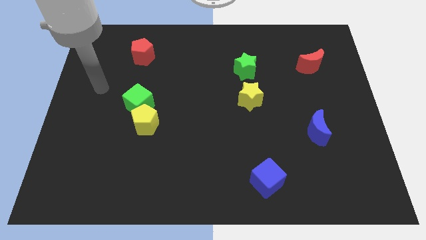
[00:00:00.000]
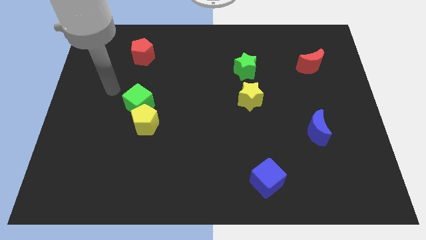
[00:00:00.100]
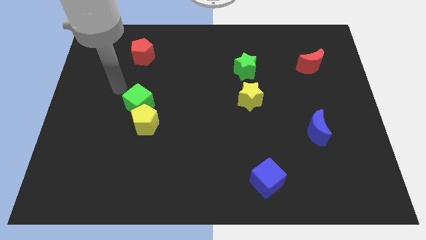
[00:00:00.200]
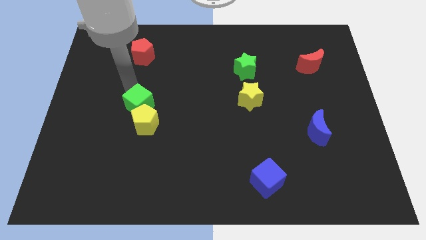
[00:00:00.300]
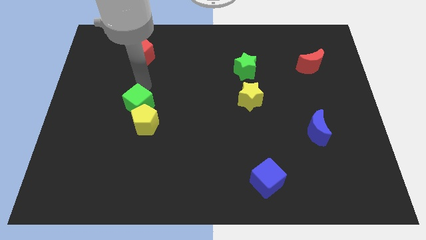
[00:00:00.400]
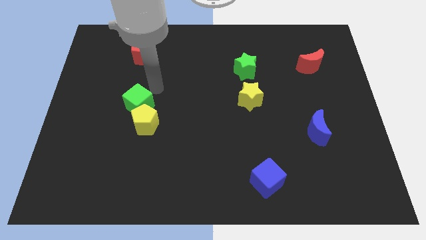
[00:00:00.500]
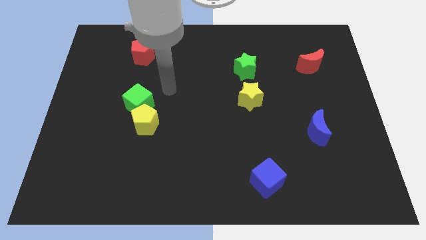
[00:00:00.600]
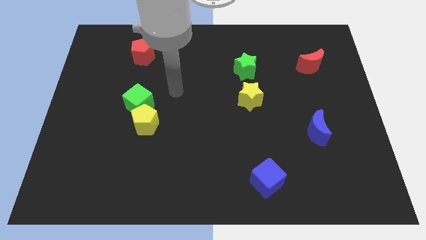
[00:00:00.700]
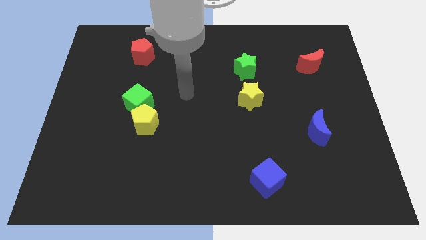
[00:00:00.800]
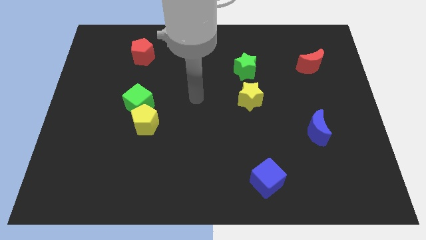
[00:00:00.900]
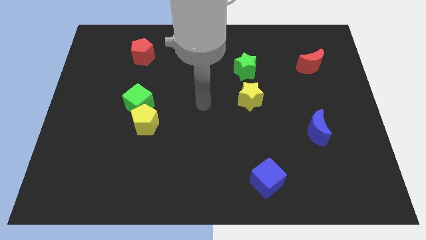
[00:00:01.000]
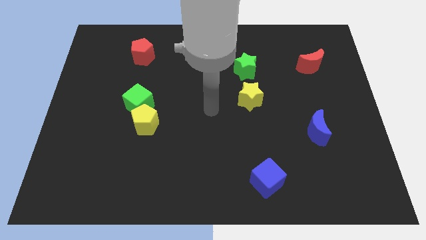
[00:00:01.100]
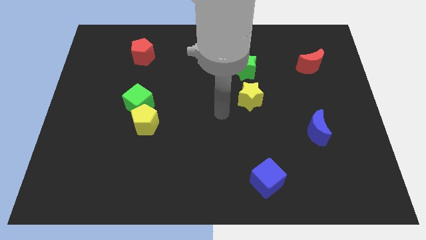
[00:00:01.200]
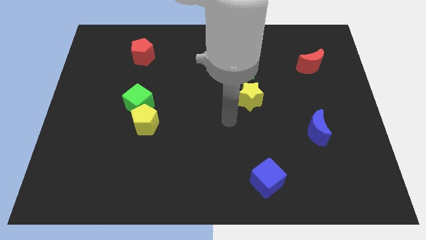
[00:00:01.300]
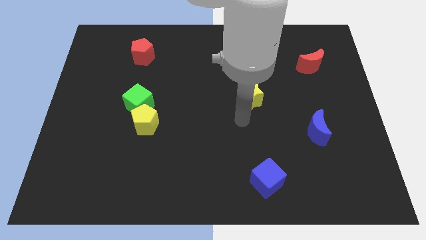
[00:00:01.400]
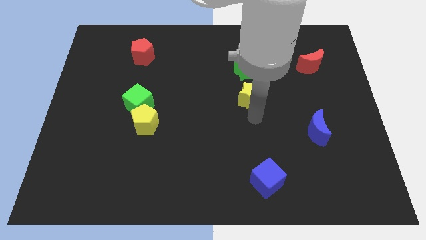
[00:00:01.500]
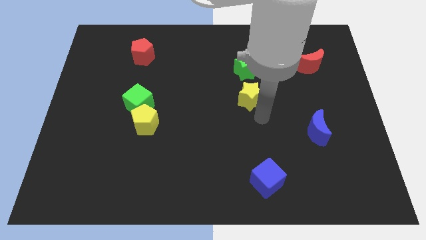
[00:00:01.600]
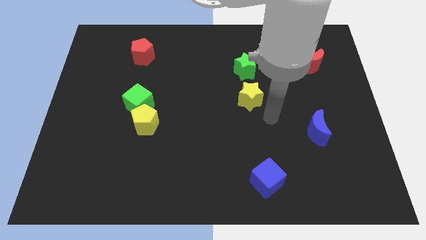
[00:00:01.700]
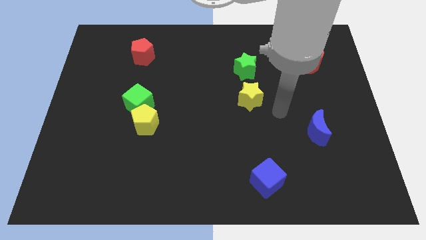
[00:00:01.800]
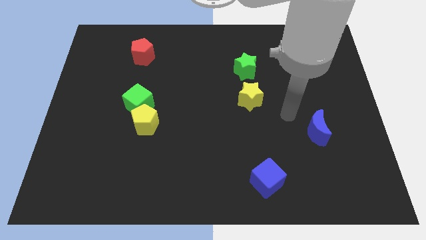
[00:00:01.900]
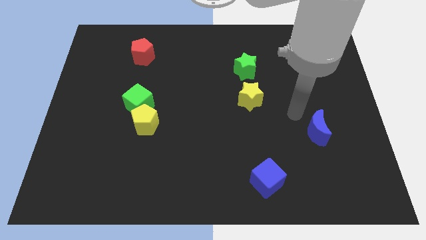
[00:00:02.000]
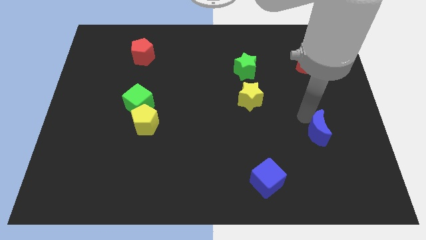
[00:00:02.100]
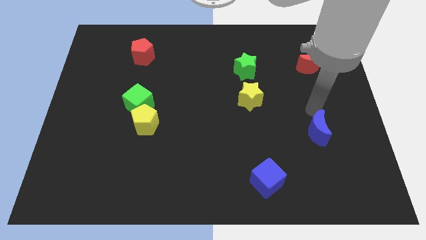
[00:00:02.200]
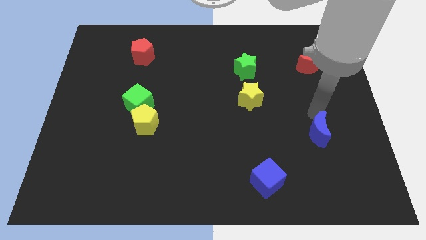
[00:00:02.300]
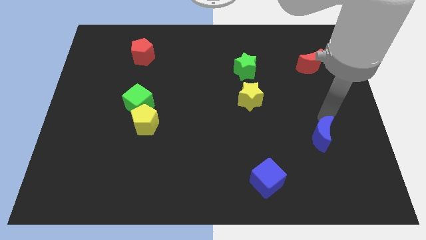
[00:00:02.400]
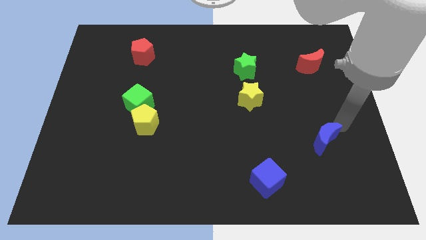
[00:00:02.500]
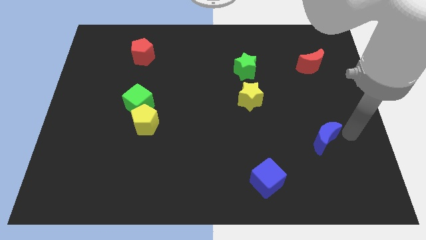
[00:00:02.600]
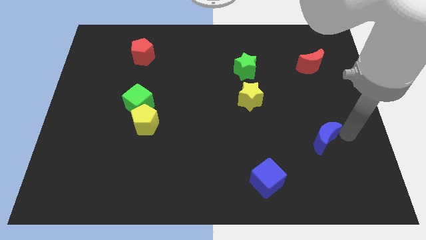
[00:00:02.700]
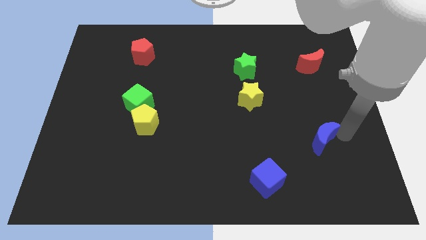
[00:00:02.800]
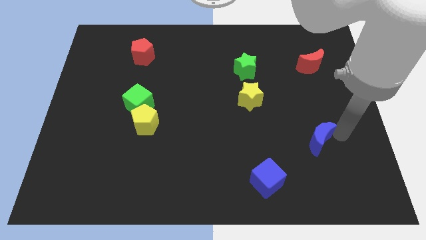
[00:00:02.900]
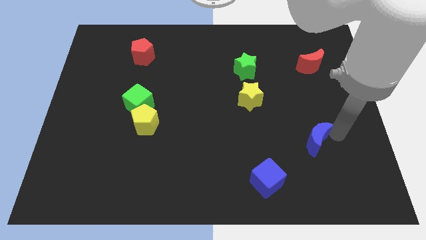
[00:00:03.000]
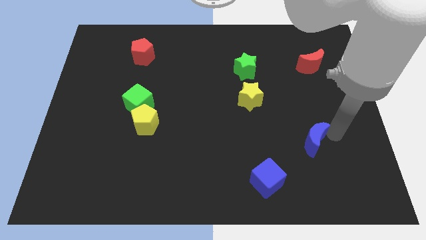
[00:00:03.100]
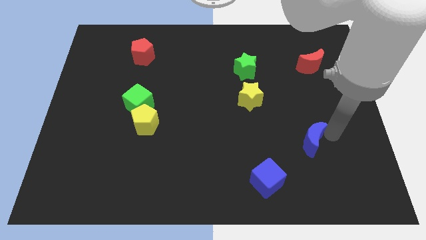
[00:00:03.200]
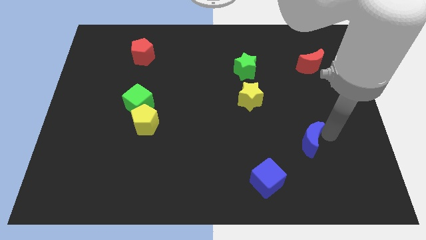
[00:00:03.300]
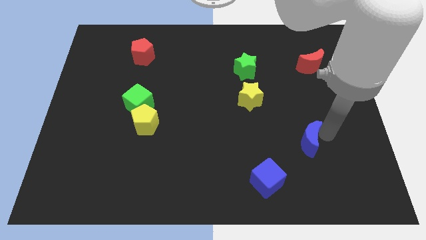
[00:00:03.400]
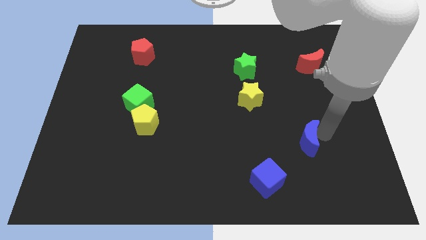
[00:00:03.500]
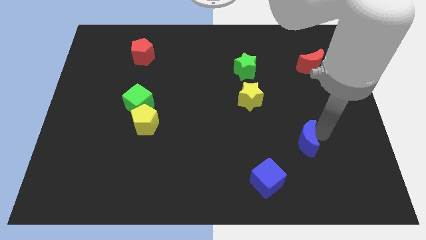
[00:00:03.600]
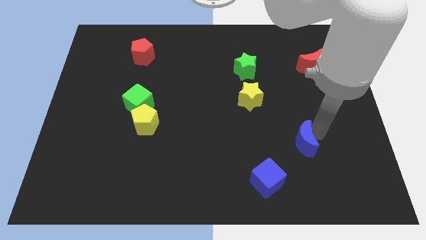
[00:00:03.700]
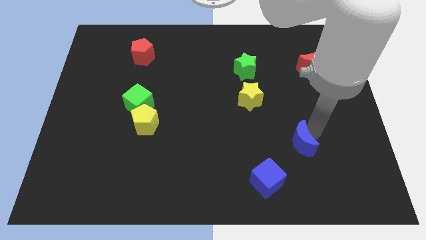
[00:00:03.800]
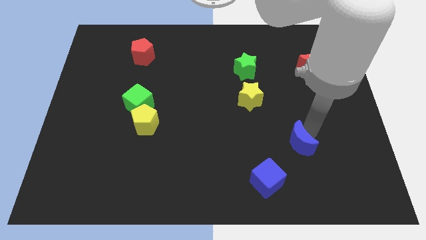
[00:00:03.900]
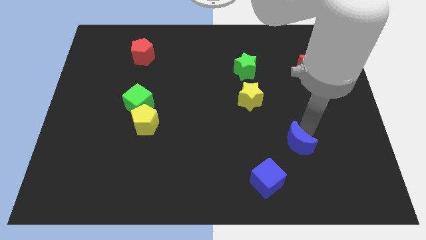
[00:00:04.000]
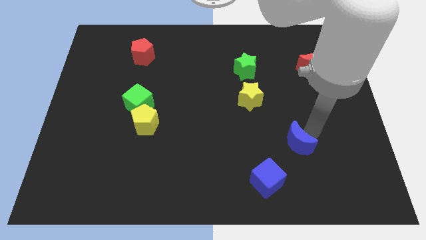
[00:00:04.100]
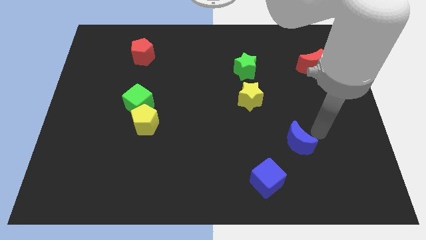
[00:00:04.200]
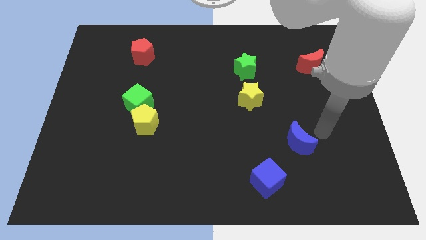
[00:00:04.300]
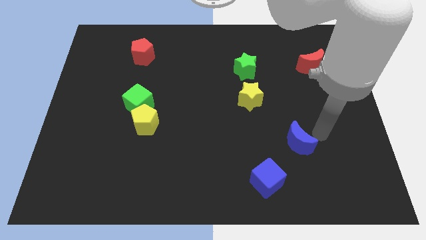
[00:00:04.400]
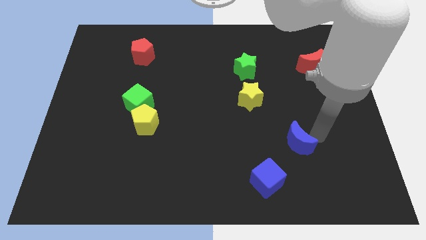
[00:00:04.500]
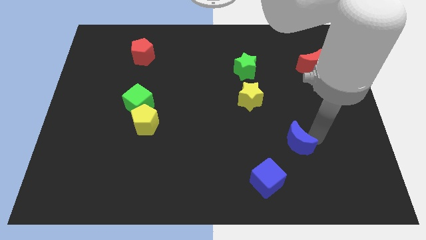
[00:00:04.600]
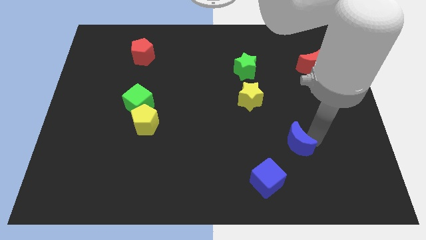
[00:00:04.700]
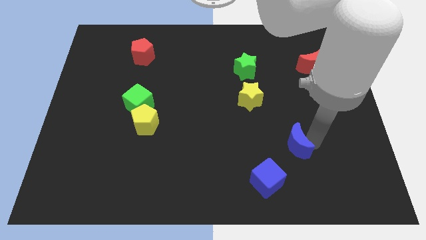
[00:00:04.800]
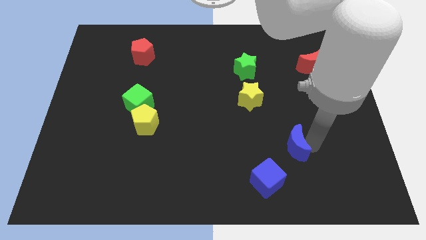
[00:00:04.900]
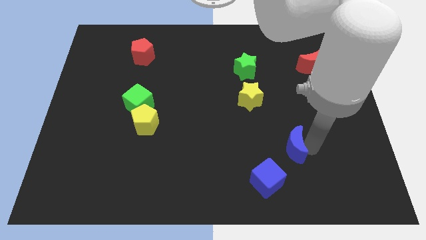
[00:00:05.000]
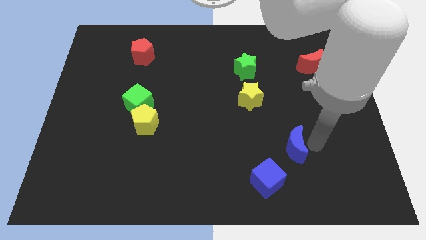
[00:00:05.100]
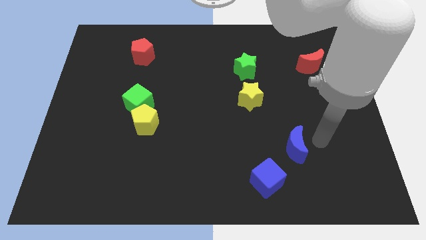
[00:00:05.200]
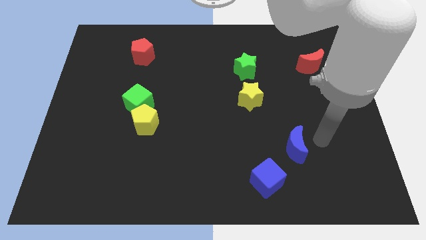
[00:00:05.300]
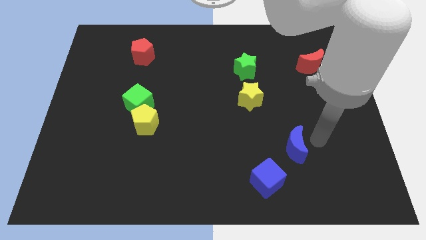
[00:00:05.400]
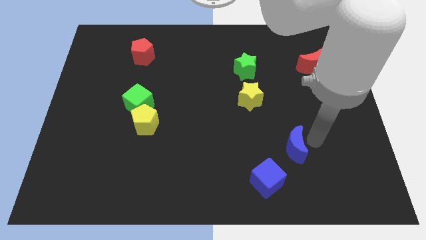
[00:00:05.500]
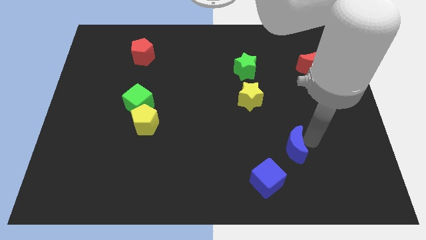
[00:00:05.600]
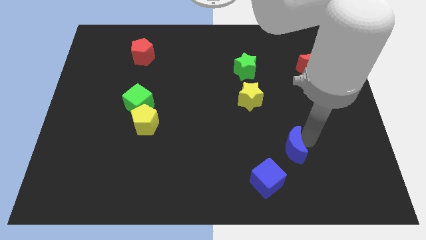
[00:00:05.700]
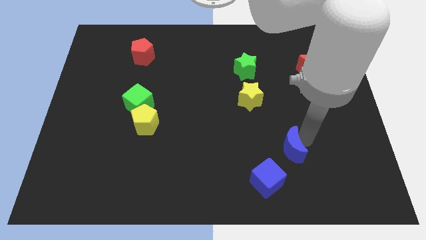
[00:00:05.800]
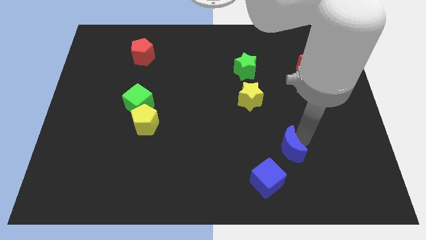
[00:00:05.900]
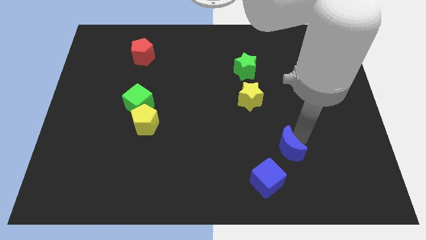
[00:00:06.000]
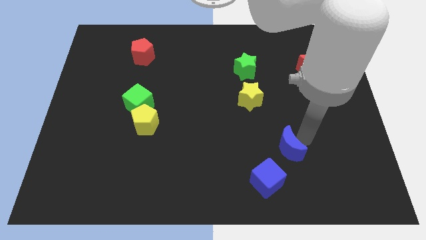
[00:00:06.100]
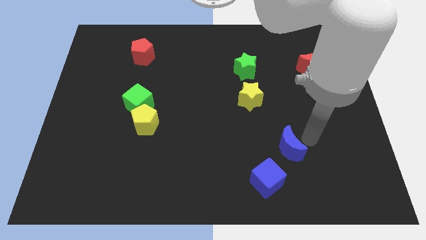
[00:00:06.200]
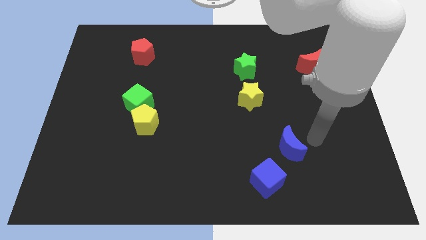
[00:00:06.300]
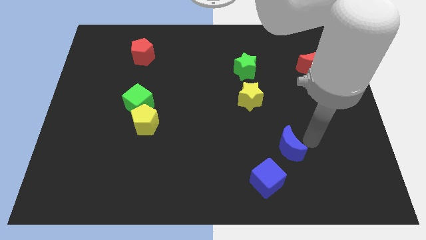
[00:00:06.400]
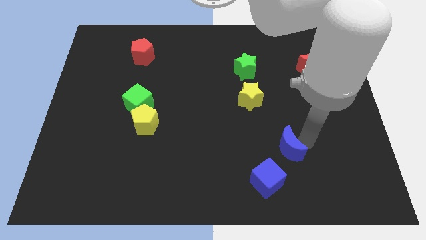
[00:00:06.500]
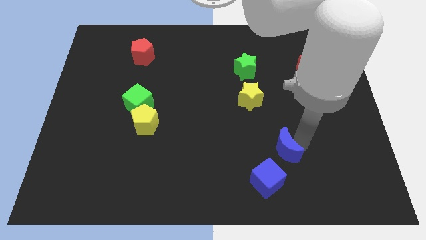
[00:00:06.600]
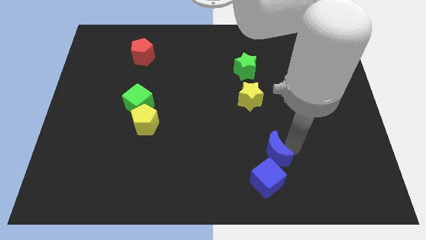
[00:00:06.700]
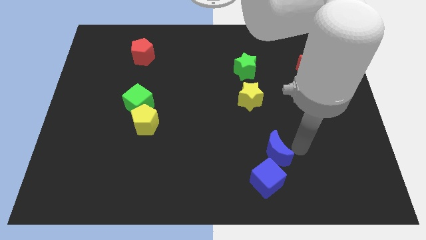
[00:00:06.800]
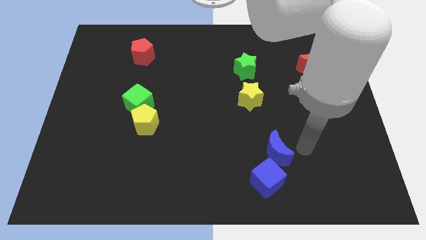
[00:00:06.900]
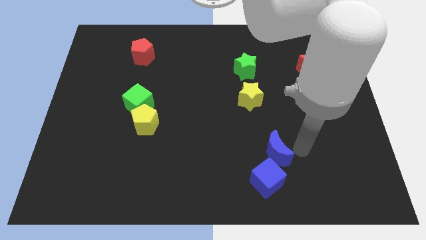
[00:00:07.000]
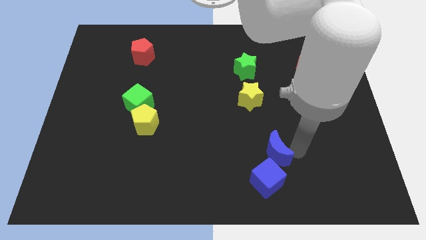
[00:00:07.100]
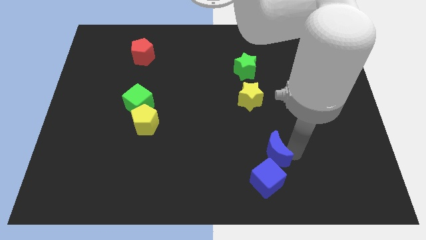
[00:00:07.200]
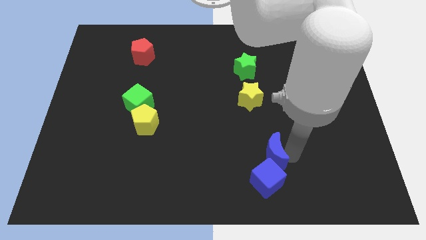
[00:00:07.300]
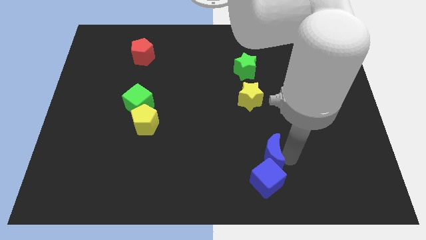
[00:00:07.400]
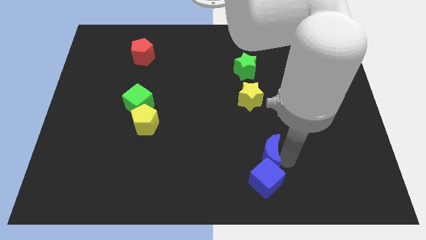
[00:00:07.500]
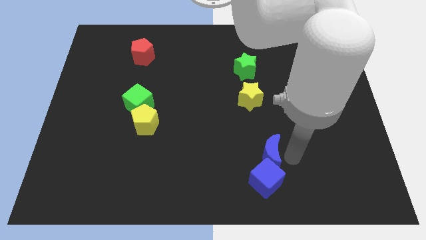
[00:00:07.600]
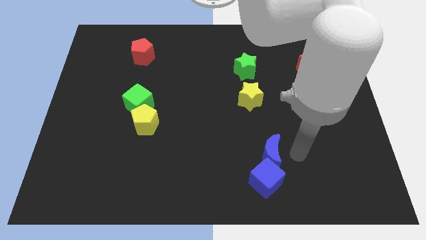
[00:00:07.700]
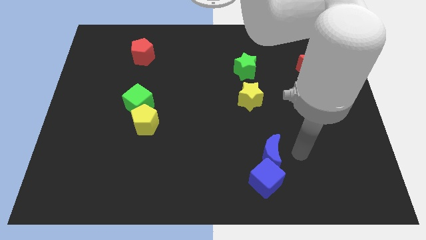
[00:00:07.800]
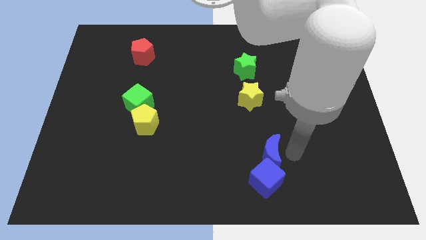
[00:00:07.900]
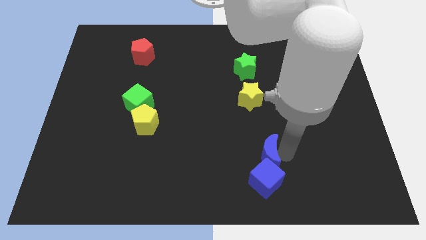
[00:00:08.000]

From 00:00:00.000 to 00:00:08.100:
put the blue moon diagonally up and to the left of the blue cube
